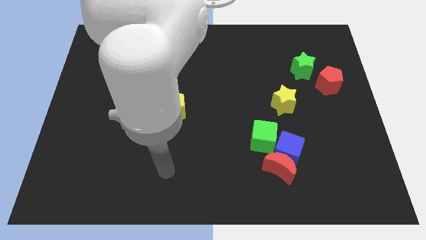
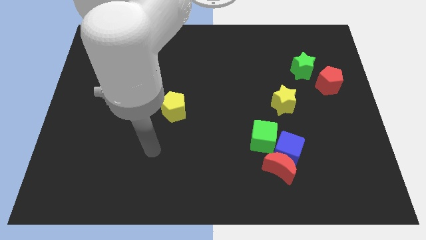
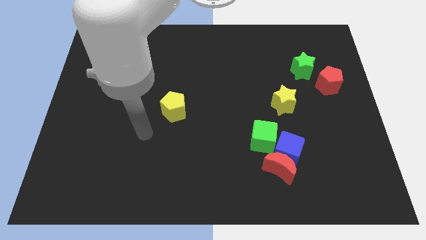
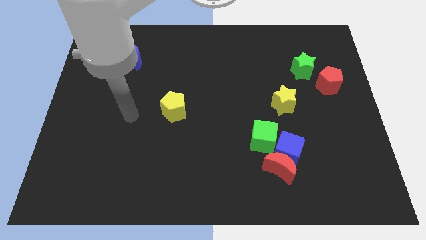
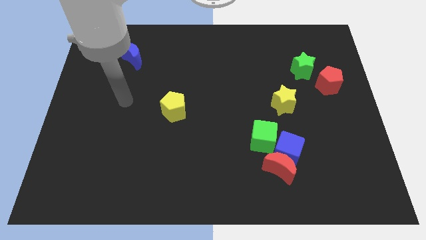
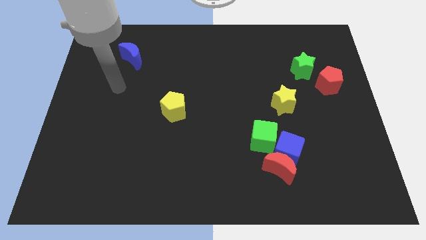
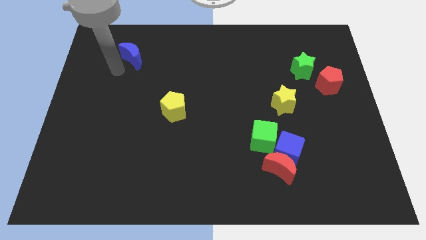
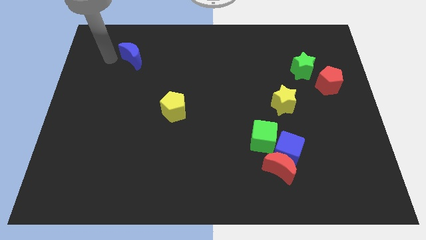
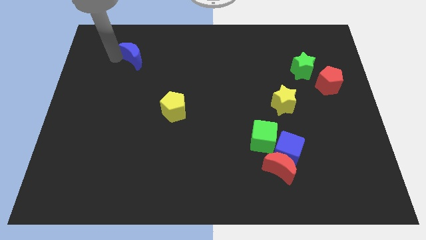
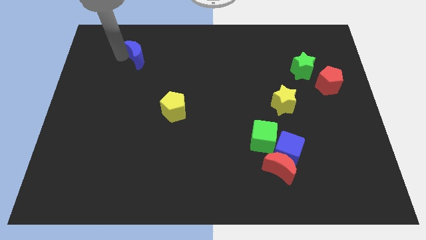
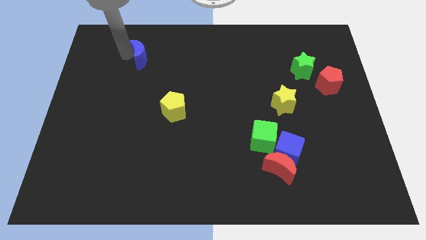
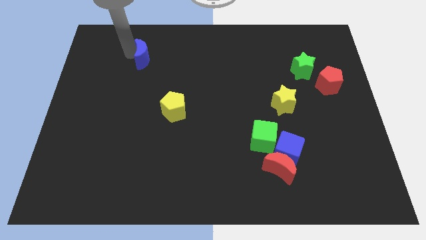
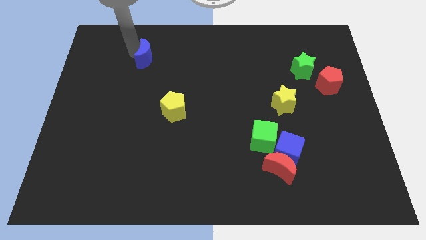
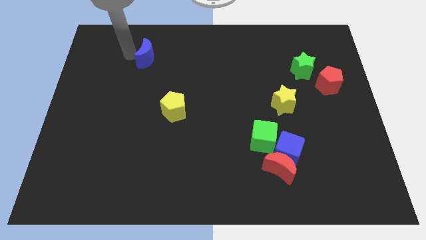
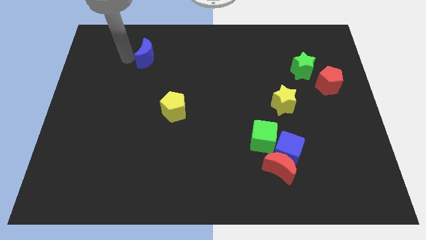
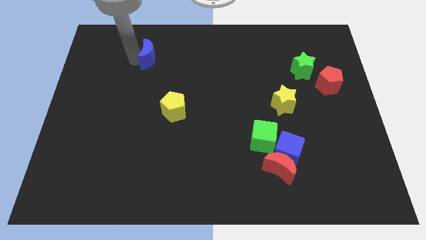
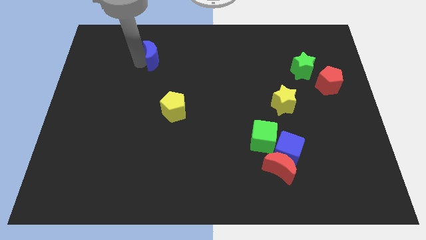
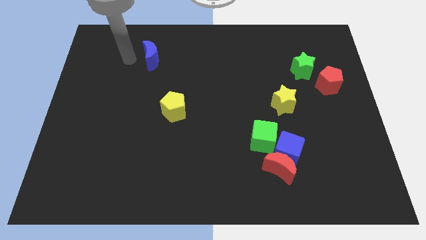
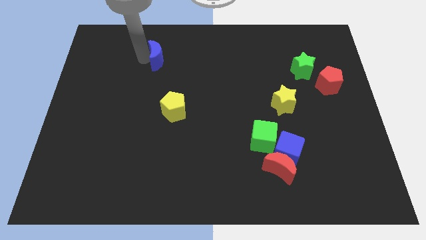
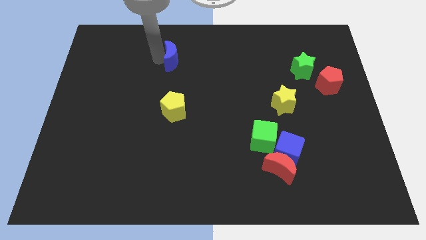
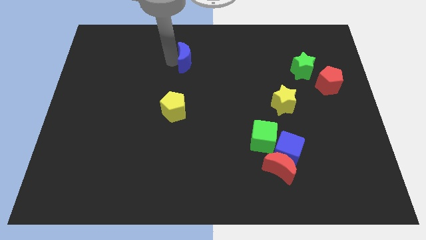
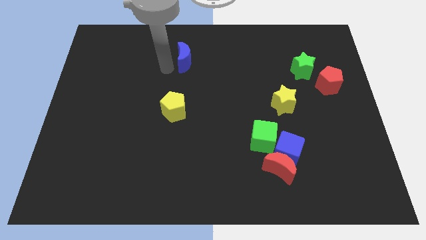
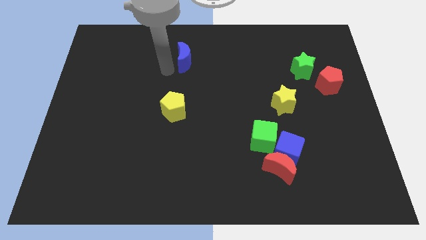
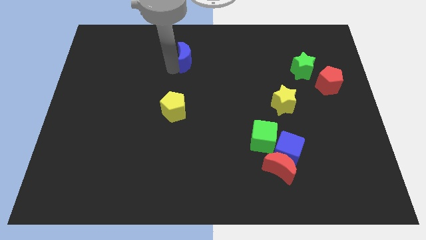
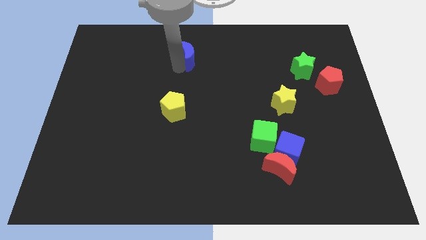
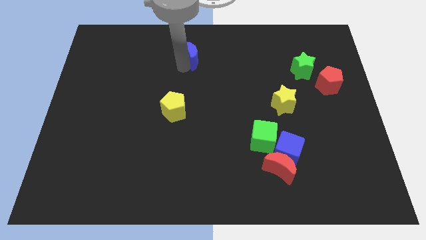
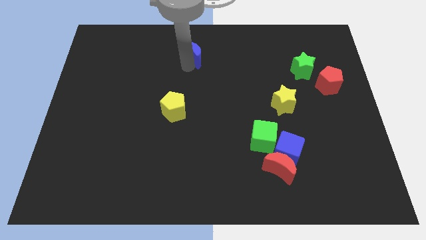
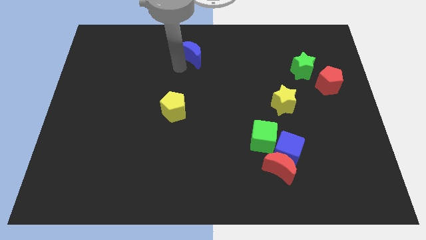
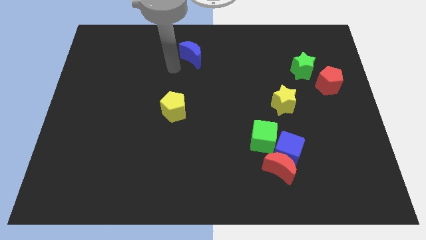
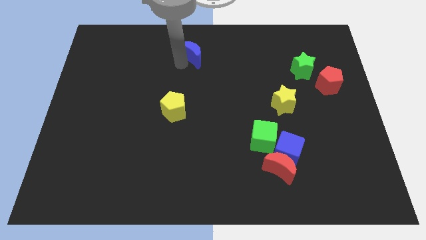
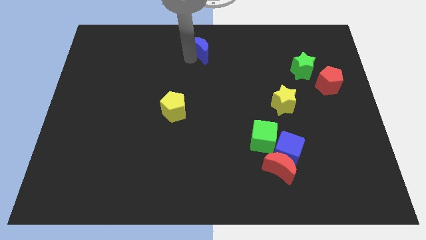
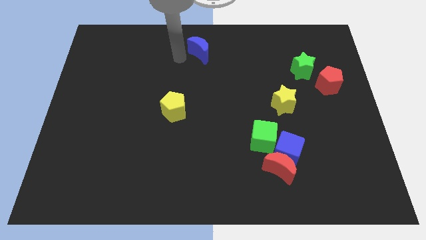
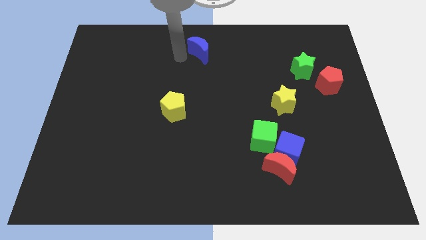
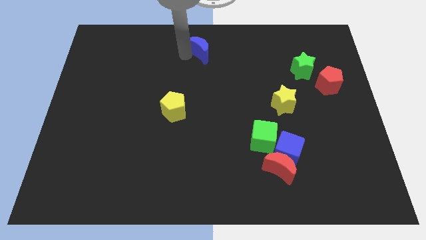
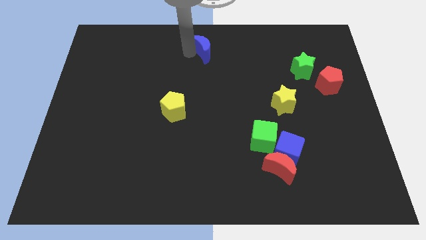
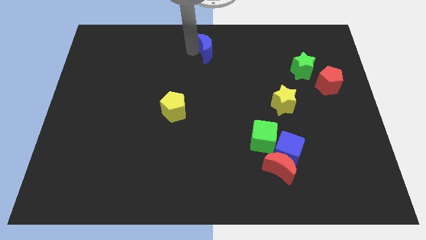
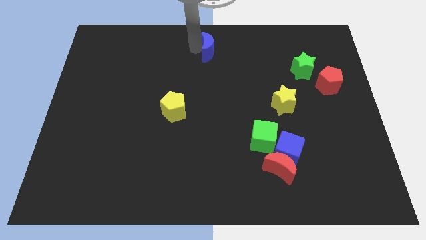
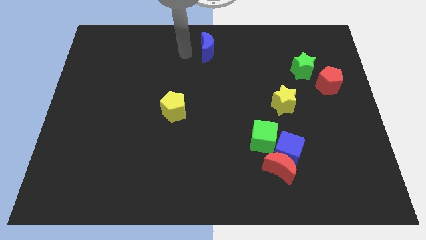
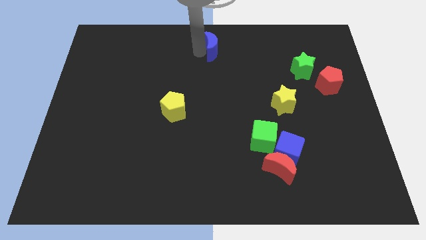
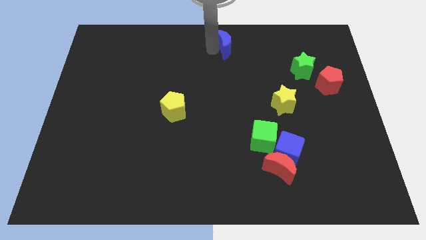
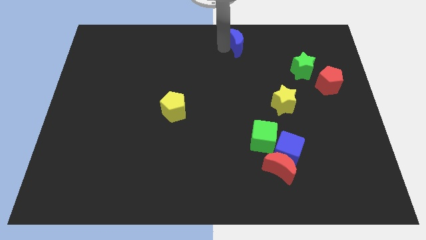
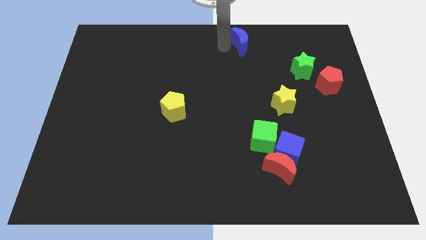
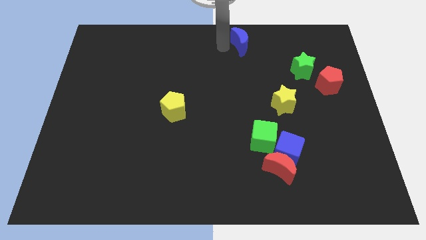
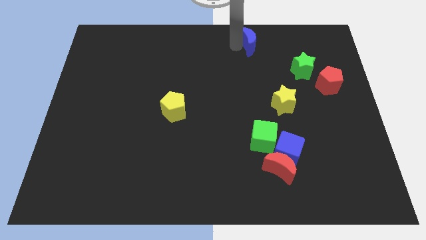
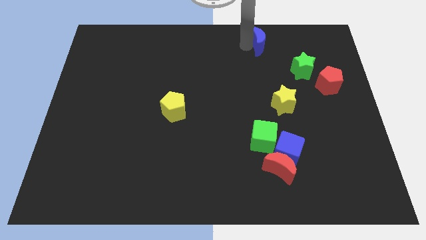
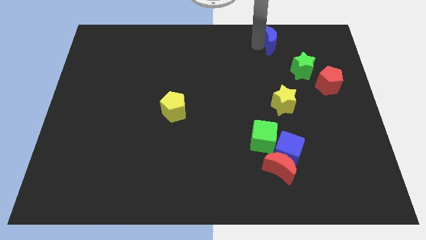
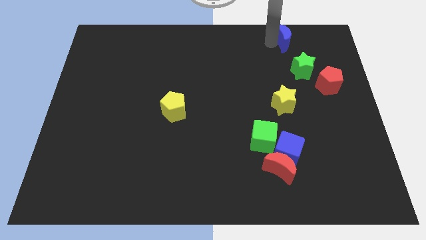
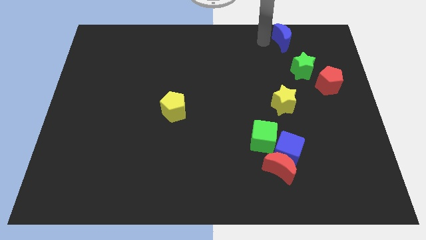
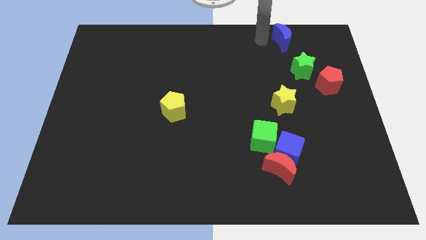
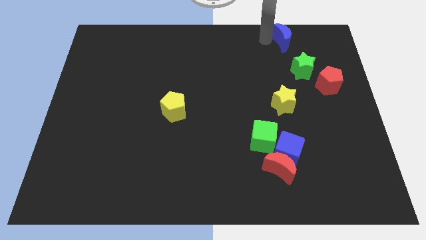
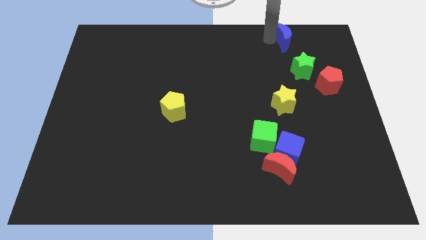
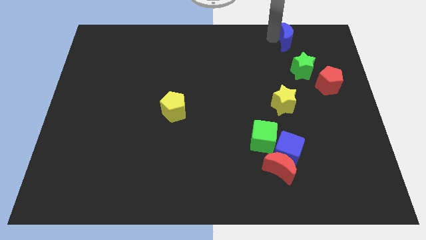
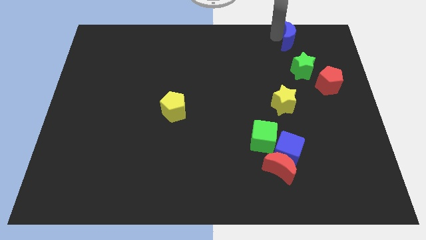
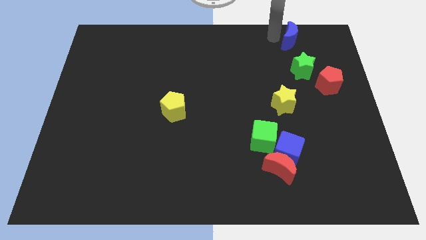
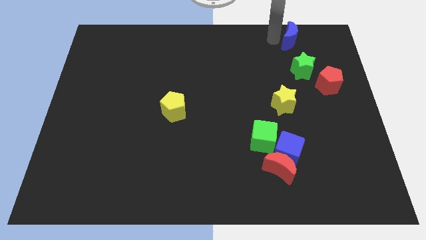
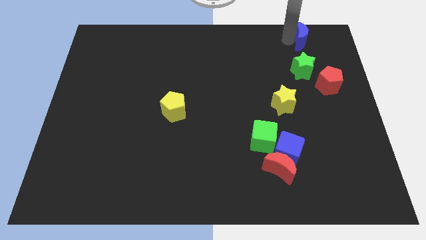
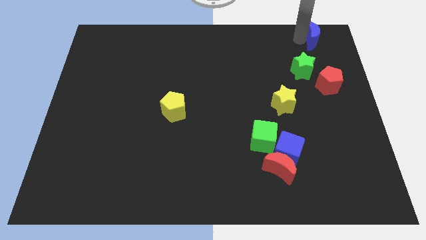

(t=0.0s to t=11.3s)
put the blue moon to the top right

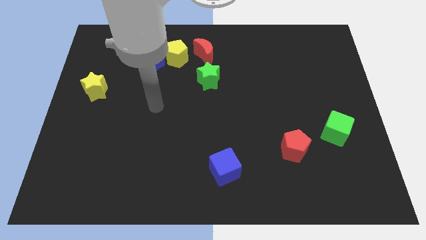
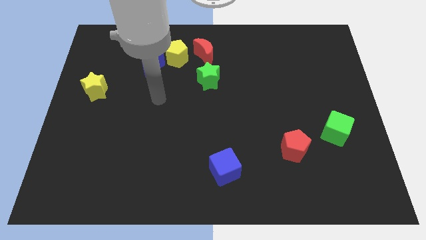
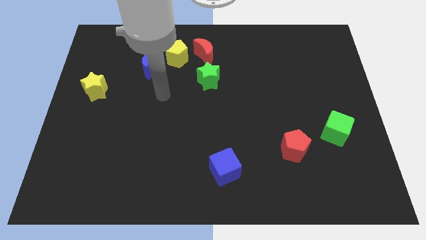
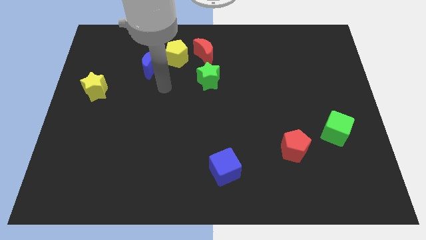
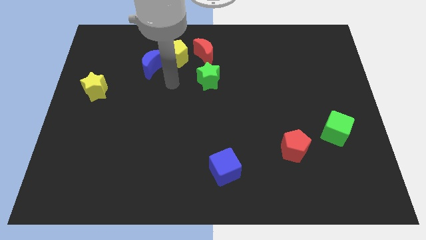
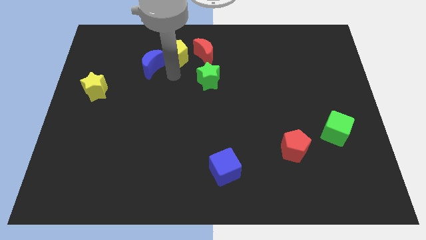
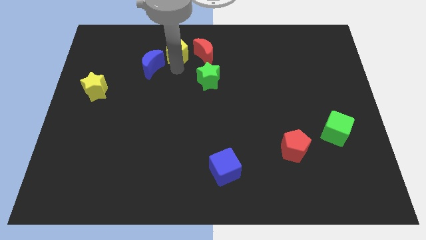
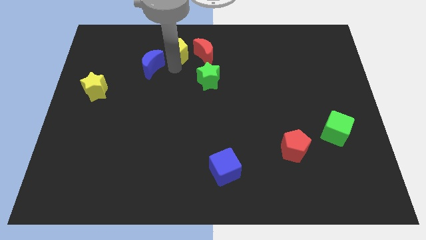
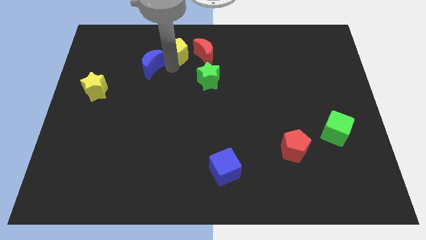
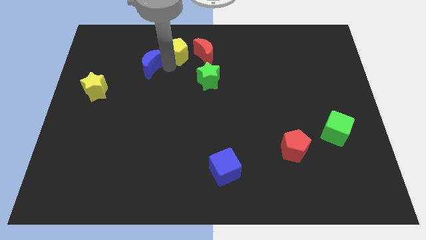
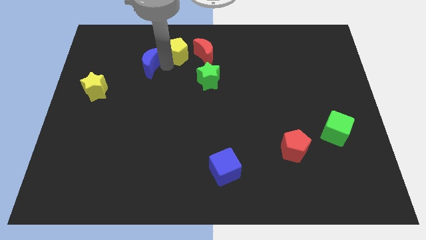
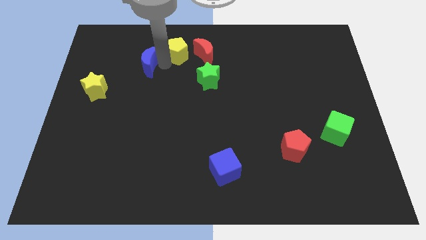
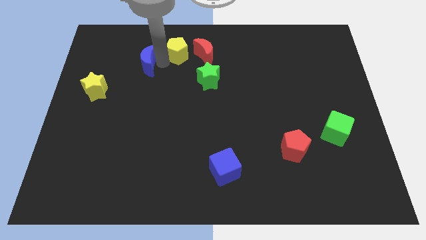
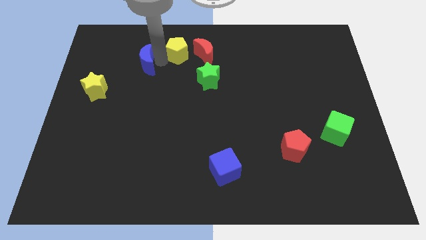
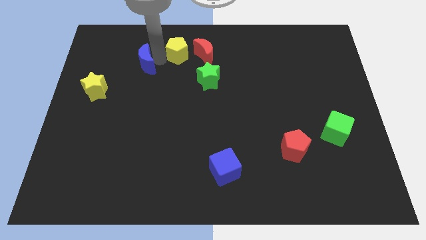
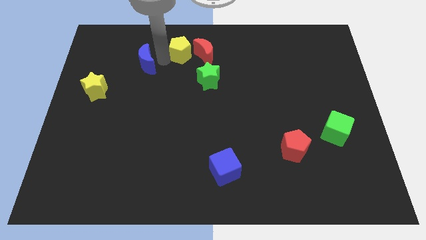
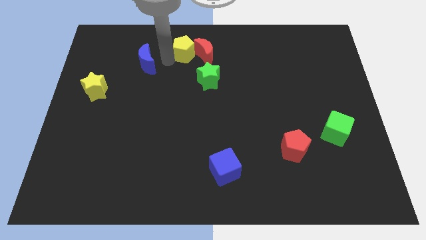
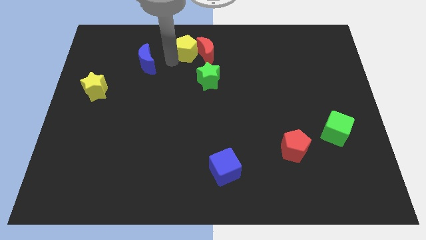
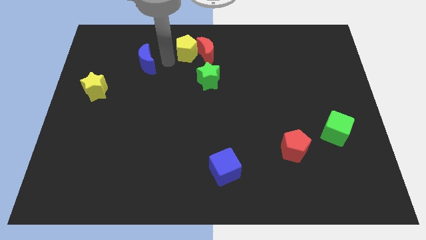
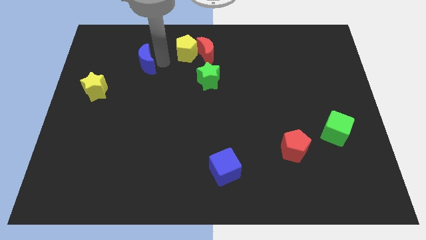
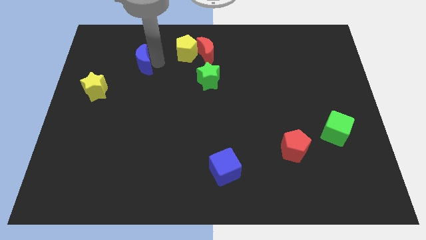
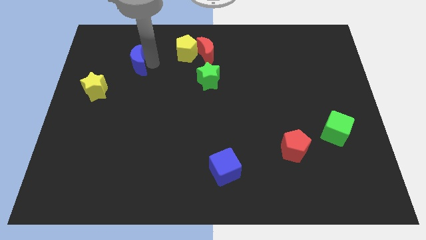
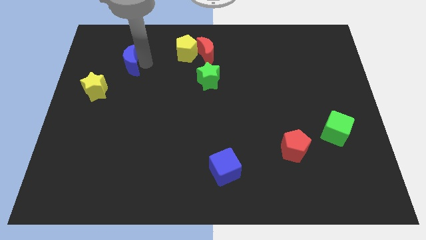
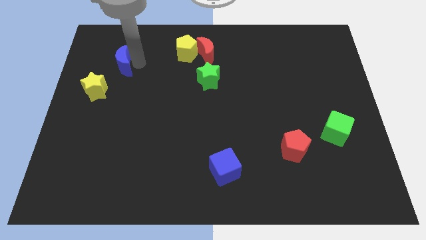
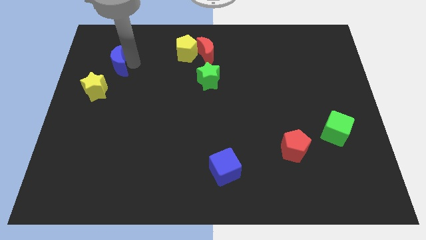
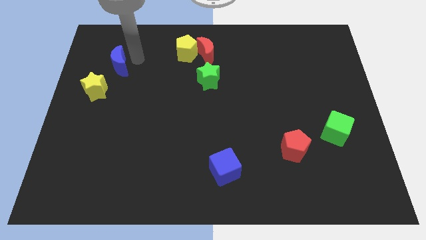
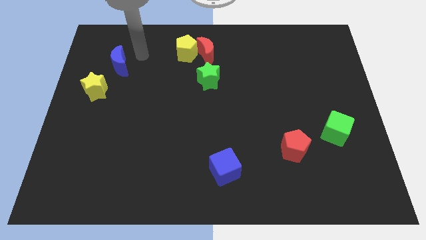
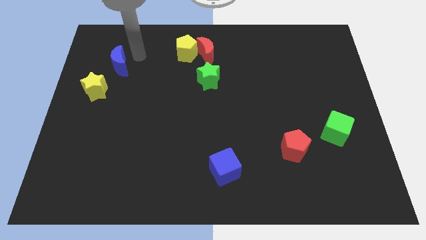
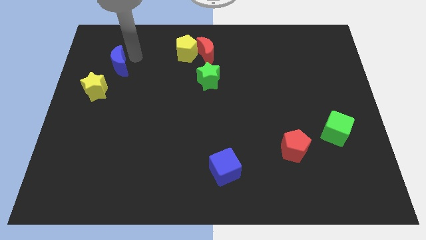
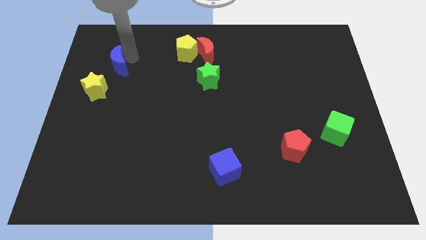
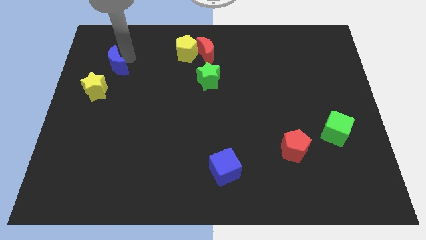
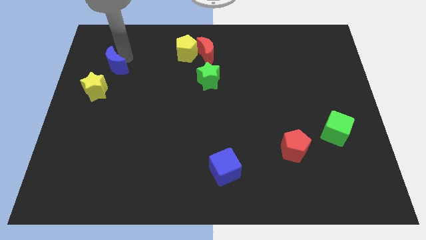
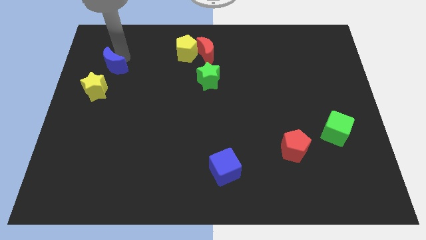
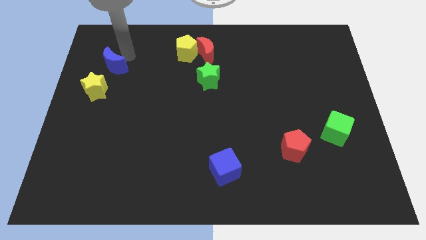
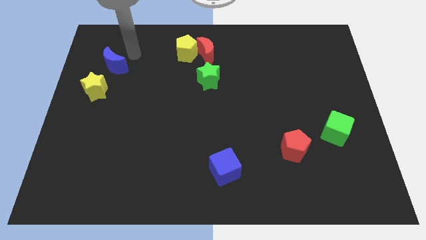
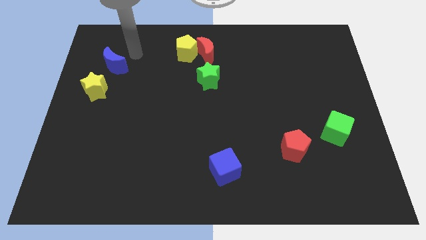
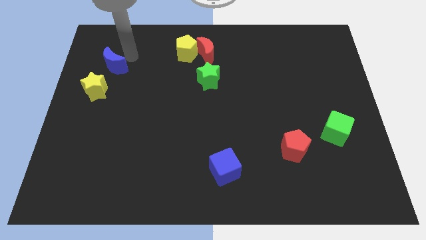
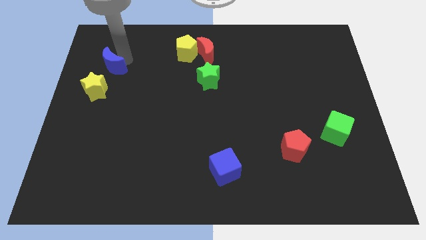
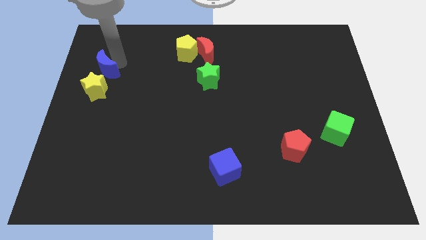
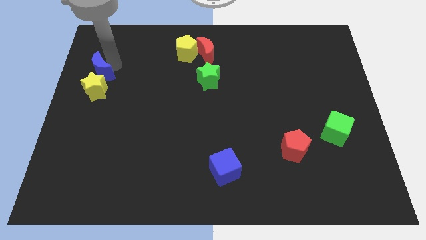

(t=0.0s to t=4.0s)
push the blue moon to the left side
